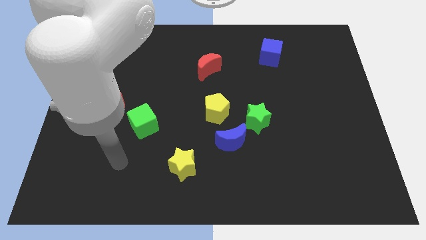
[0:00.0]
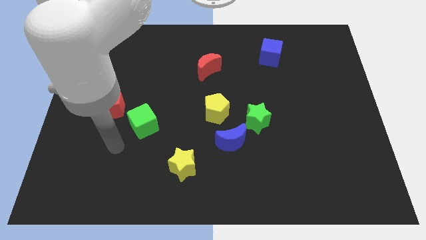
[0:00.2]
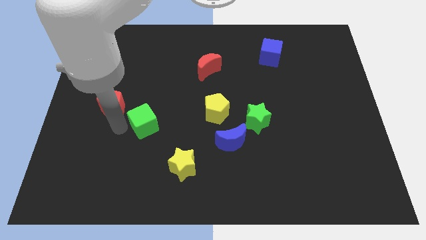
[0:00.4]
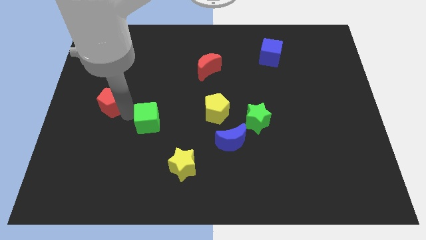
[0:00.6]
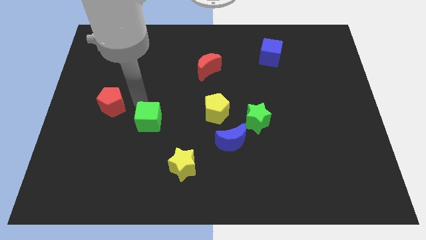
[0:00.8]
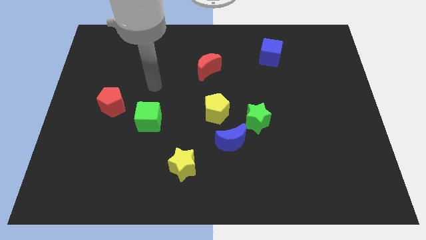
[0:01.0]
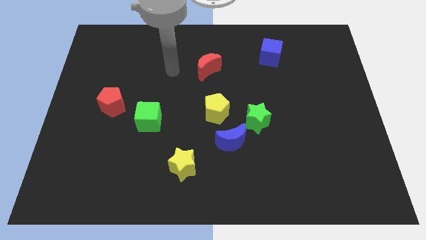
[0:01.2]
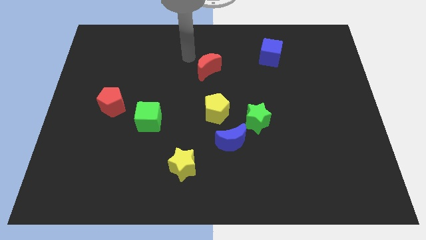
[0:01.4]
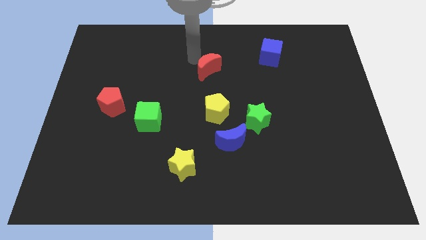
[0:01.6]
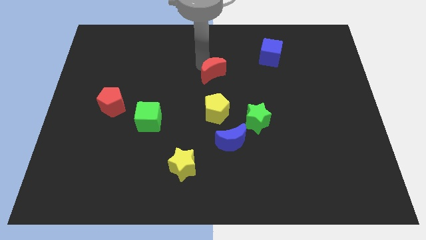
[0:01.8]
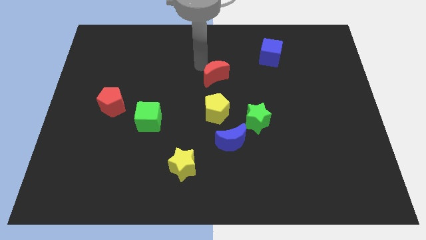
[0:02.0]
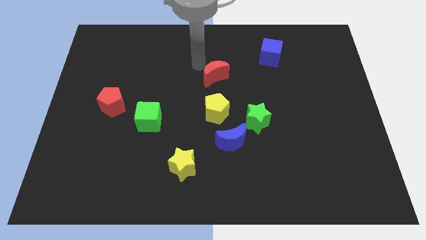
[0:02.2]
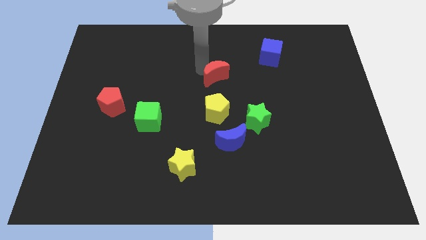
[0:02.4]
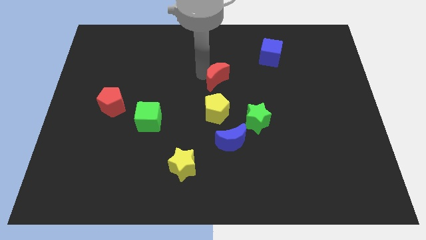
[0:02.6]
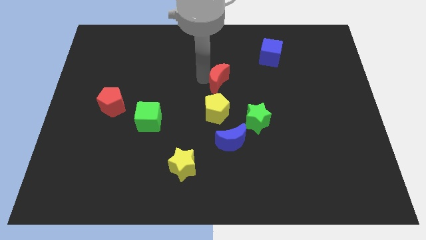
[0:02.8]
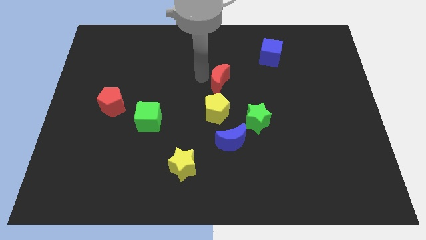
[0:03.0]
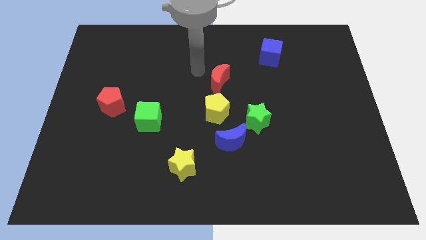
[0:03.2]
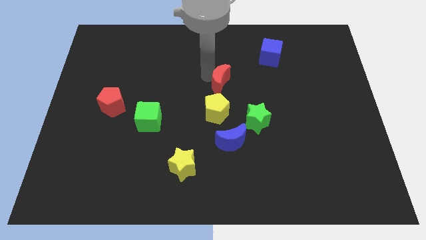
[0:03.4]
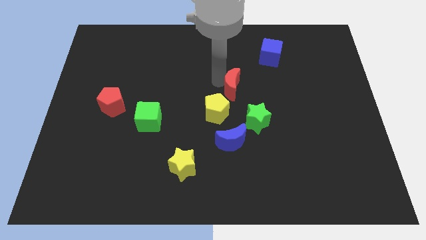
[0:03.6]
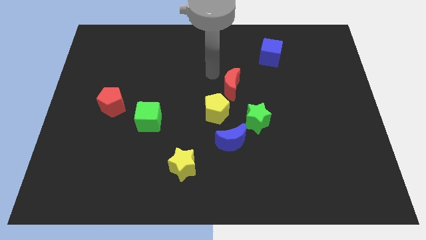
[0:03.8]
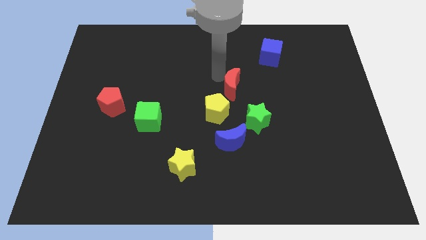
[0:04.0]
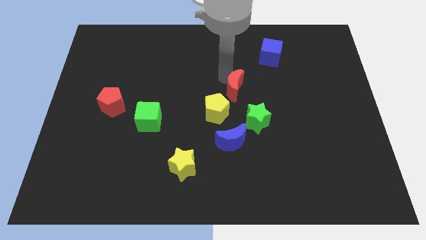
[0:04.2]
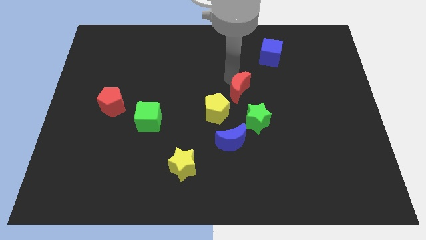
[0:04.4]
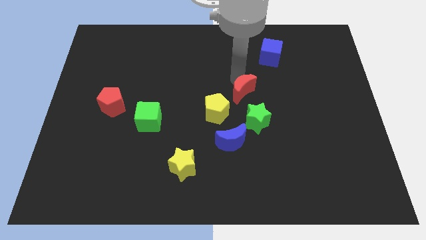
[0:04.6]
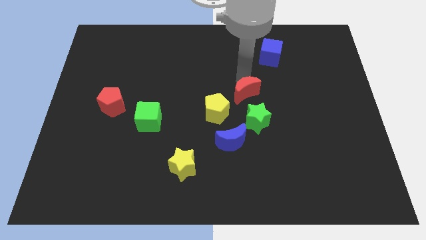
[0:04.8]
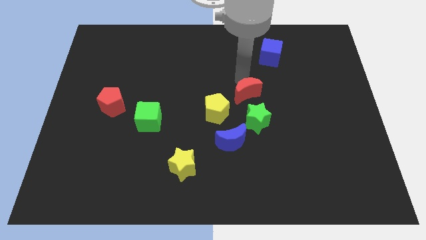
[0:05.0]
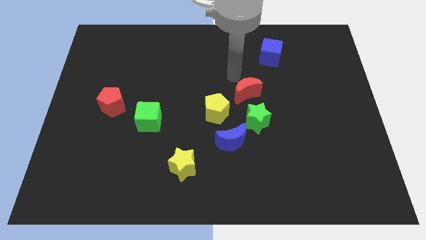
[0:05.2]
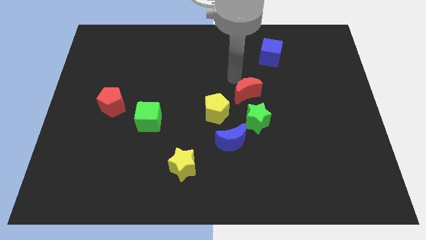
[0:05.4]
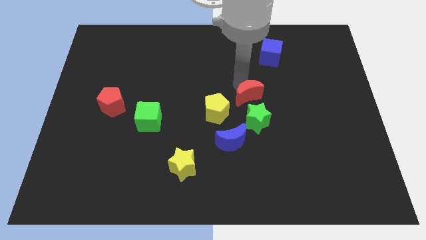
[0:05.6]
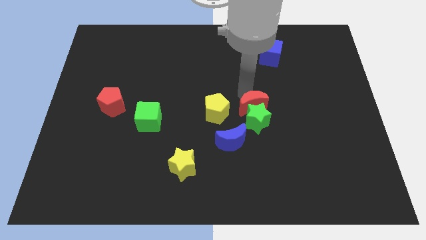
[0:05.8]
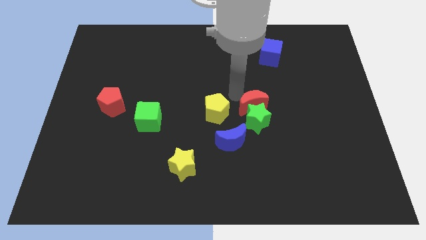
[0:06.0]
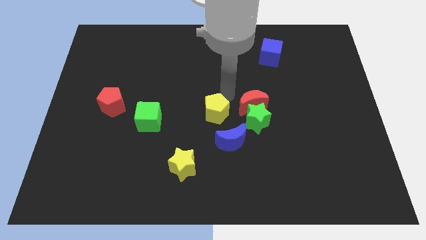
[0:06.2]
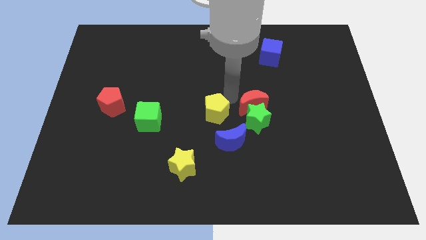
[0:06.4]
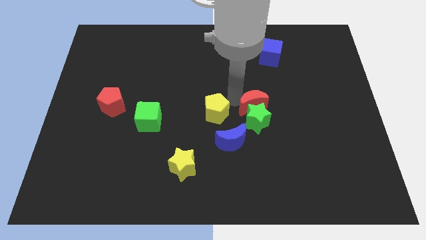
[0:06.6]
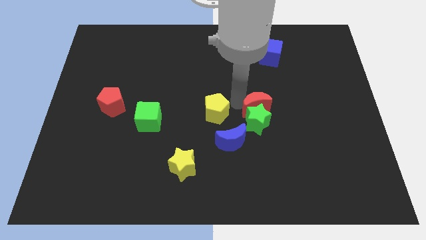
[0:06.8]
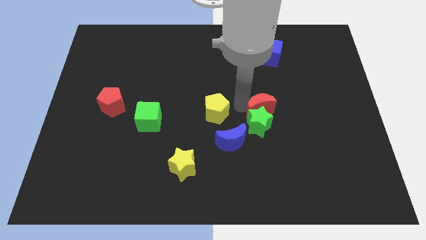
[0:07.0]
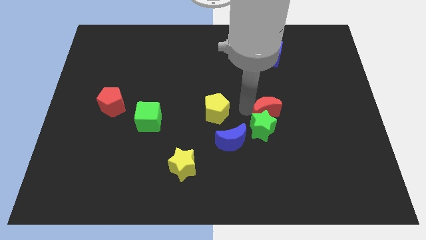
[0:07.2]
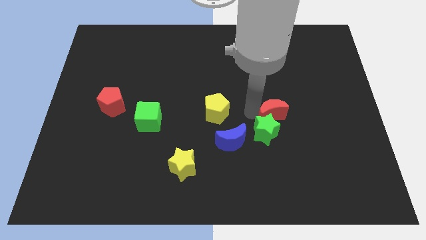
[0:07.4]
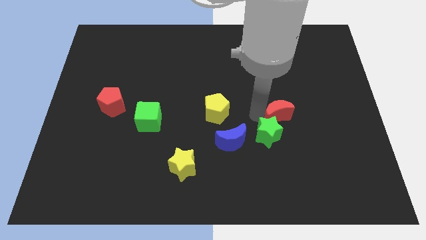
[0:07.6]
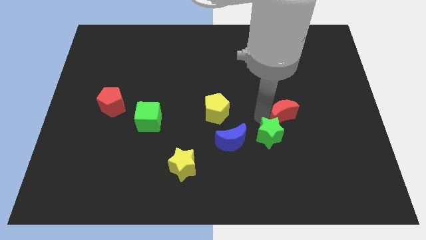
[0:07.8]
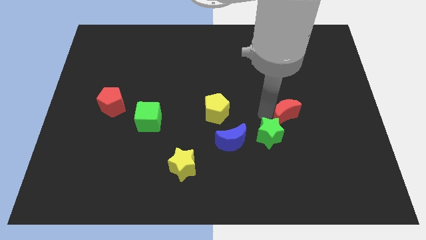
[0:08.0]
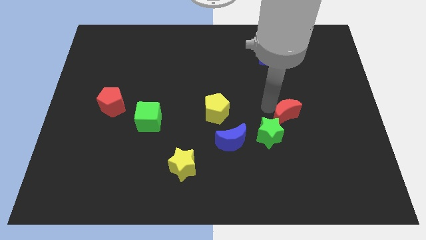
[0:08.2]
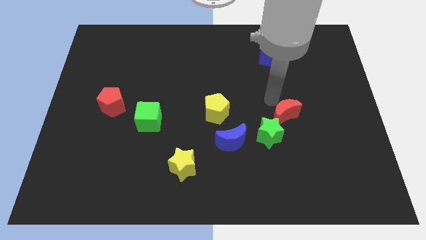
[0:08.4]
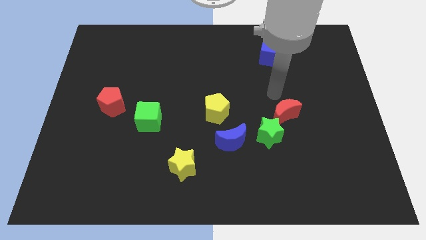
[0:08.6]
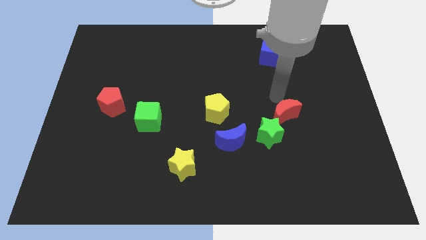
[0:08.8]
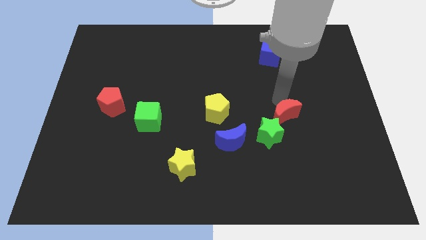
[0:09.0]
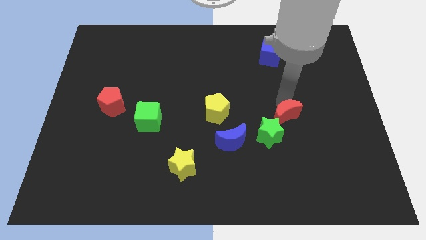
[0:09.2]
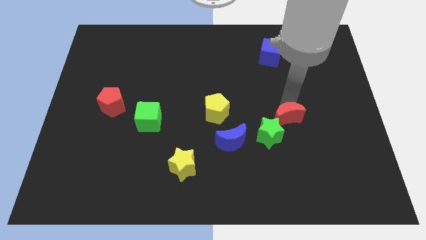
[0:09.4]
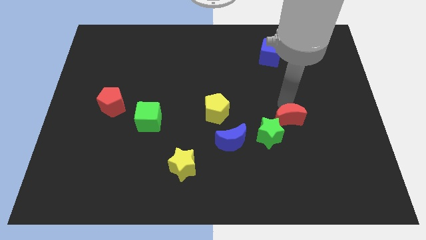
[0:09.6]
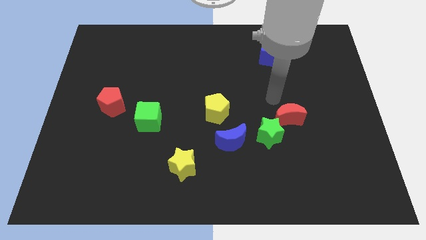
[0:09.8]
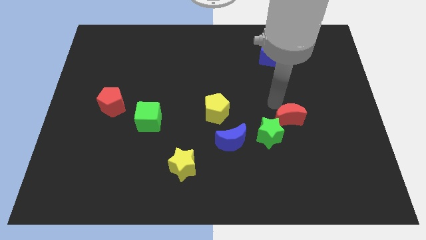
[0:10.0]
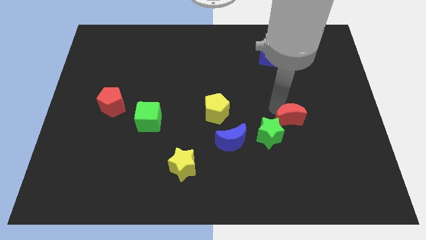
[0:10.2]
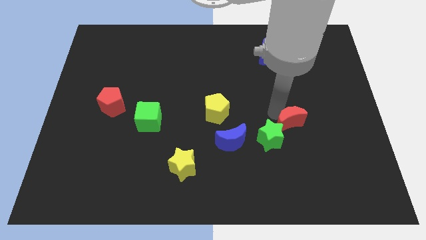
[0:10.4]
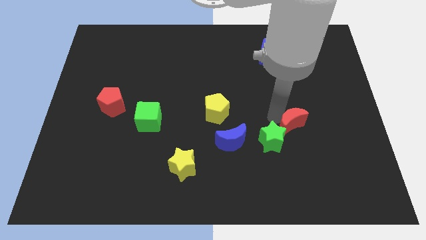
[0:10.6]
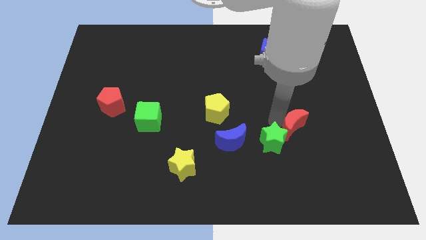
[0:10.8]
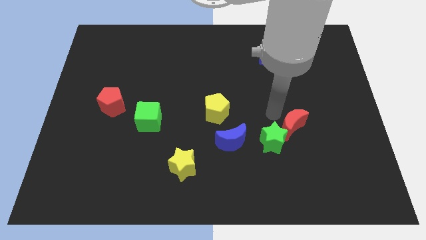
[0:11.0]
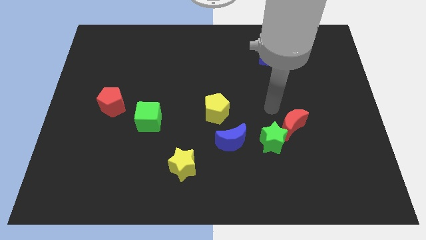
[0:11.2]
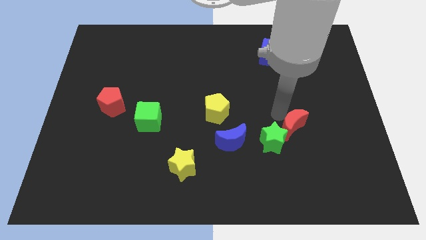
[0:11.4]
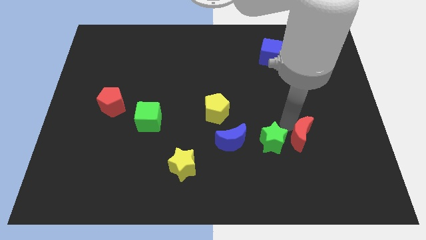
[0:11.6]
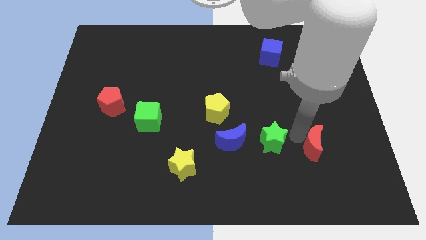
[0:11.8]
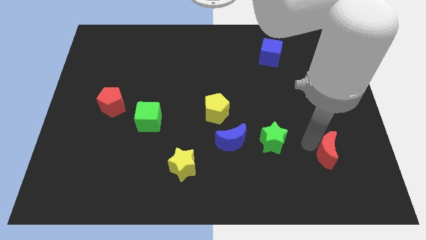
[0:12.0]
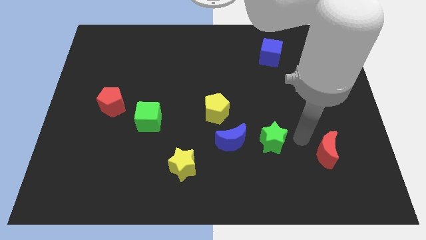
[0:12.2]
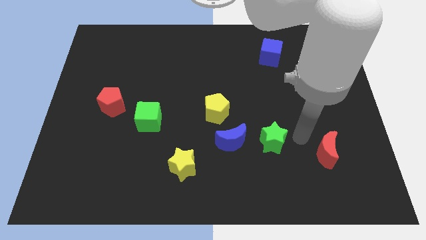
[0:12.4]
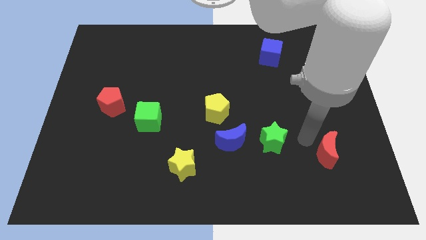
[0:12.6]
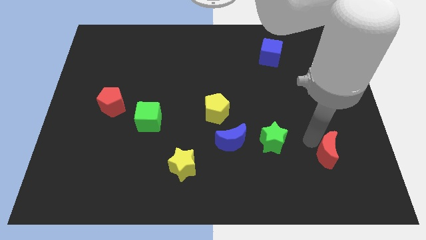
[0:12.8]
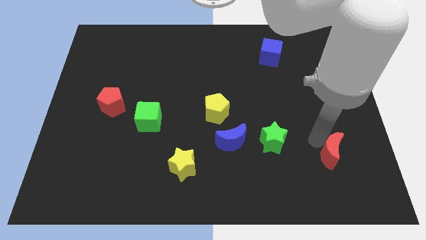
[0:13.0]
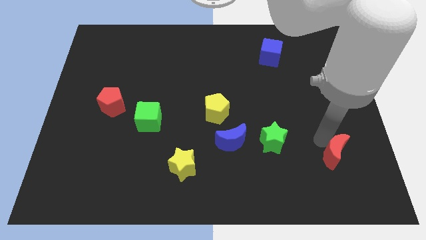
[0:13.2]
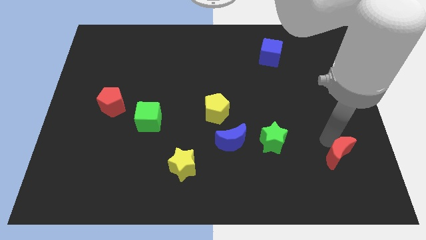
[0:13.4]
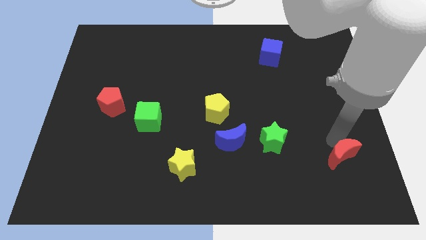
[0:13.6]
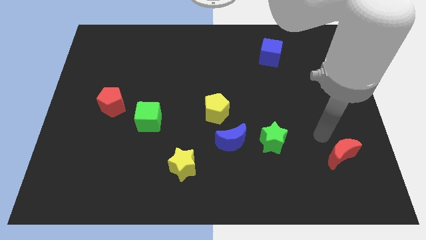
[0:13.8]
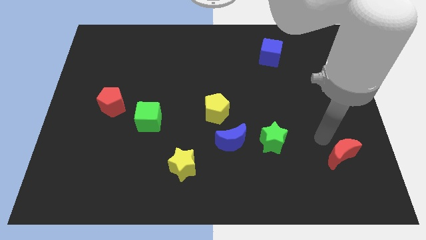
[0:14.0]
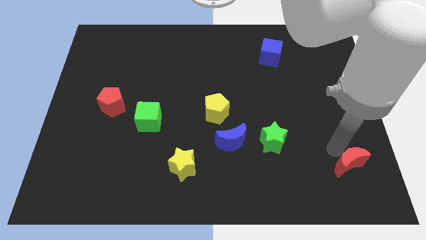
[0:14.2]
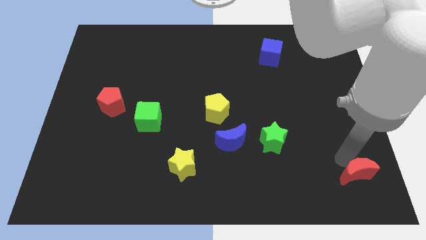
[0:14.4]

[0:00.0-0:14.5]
push the red moon to the bottom right corner
